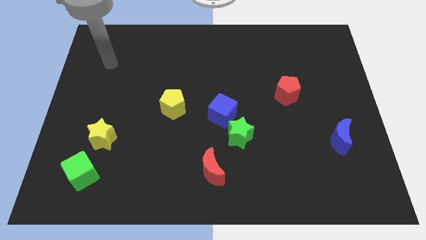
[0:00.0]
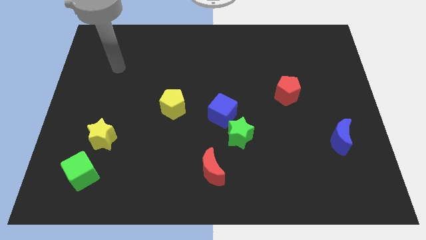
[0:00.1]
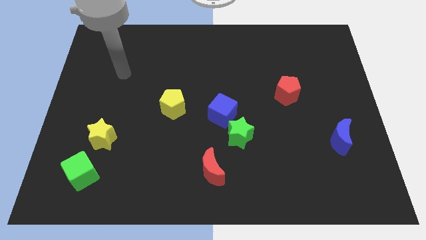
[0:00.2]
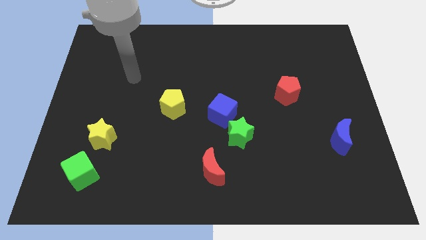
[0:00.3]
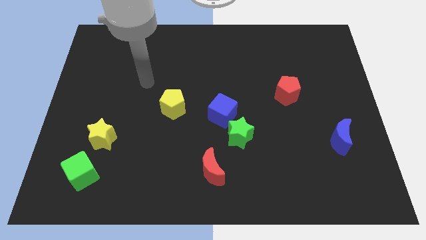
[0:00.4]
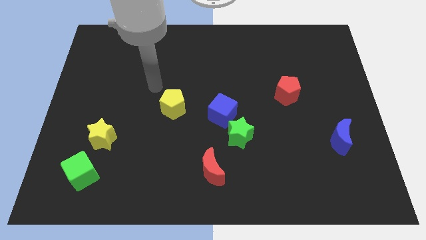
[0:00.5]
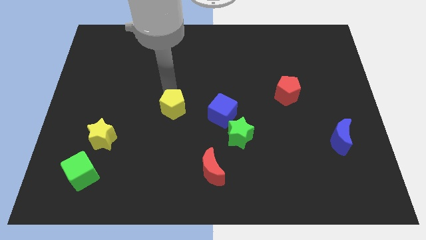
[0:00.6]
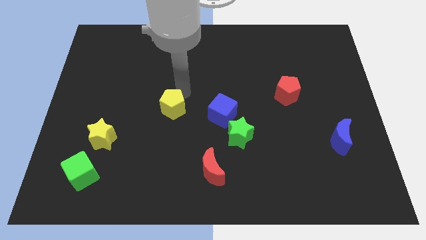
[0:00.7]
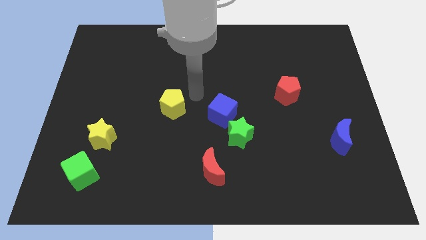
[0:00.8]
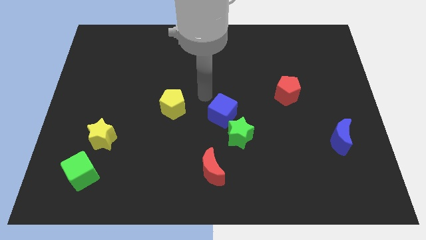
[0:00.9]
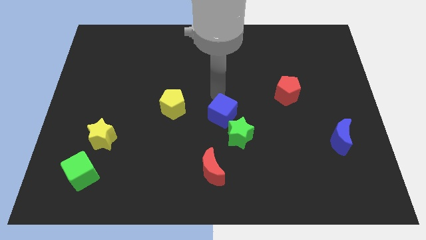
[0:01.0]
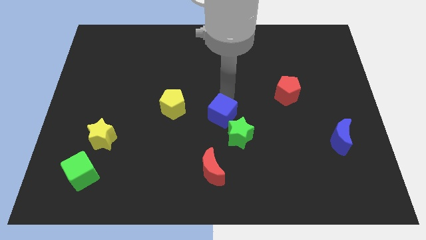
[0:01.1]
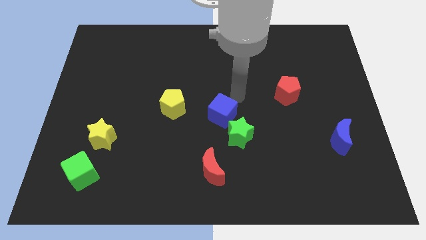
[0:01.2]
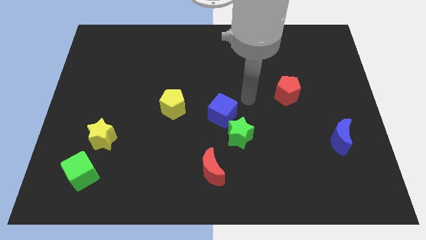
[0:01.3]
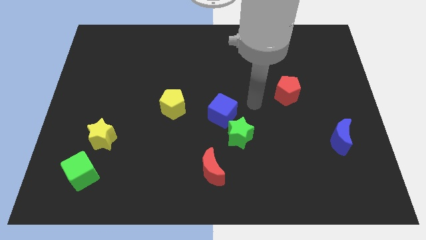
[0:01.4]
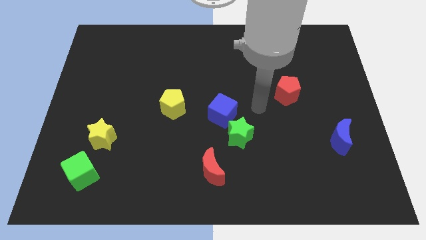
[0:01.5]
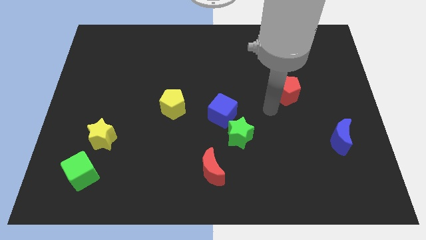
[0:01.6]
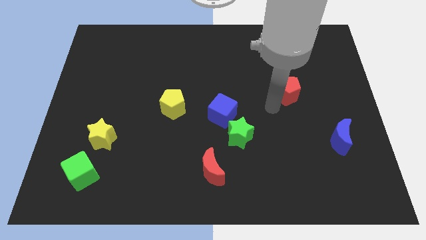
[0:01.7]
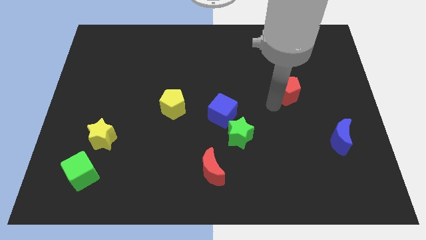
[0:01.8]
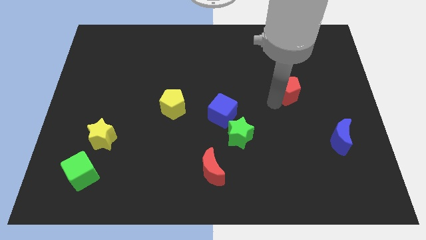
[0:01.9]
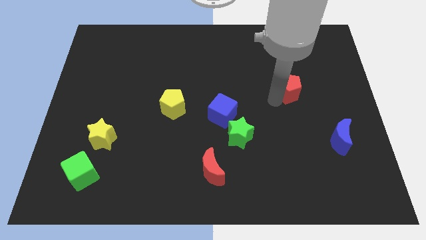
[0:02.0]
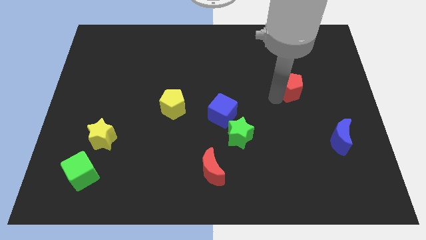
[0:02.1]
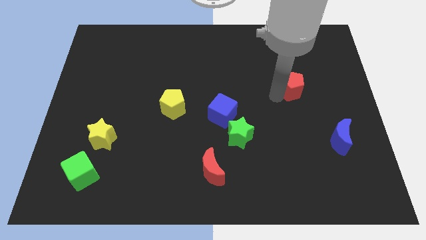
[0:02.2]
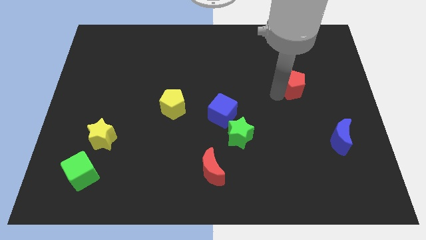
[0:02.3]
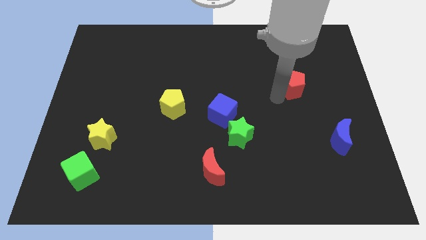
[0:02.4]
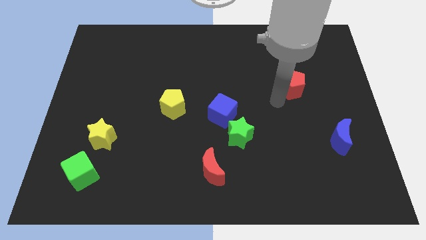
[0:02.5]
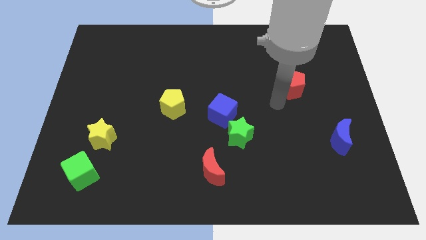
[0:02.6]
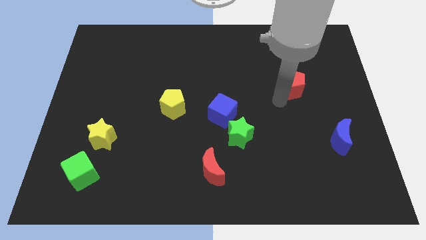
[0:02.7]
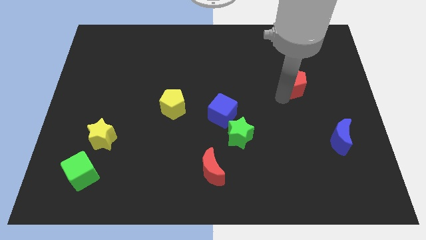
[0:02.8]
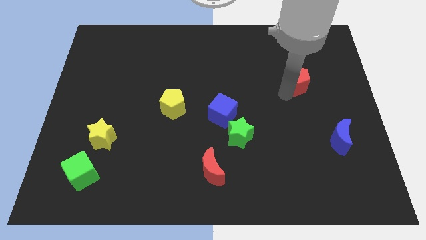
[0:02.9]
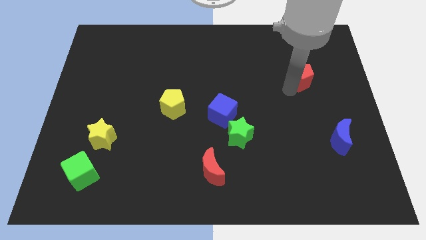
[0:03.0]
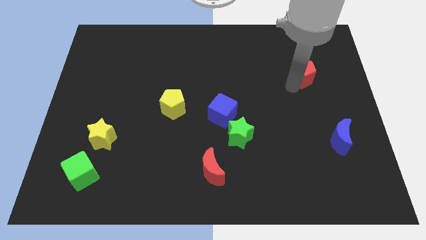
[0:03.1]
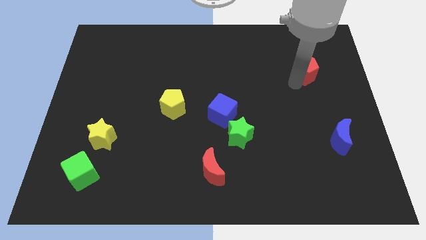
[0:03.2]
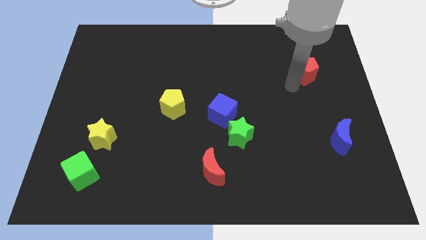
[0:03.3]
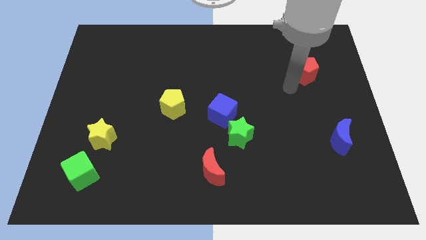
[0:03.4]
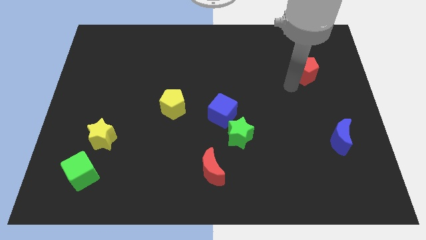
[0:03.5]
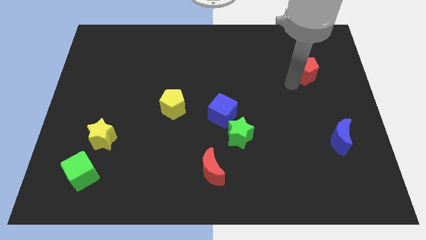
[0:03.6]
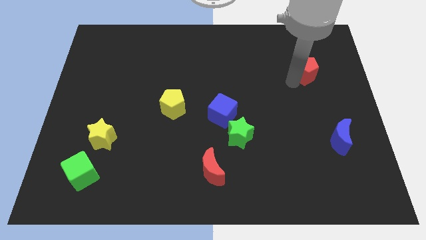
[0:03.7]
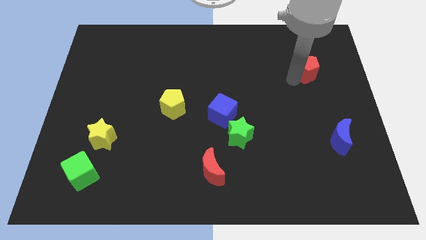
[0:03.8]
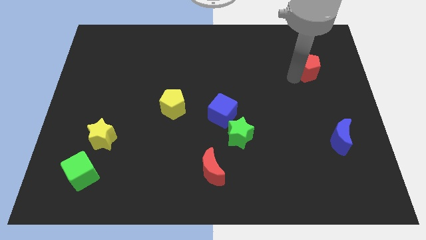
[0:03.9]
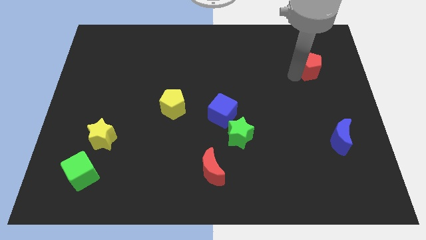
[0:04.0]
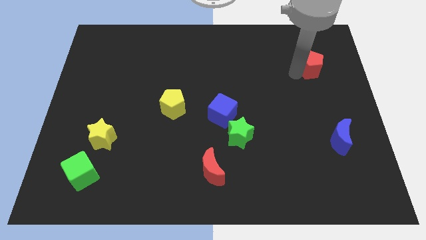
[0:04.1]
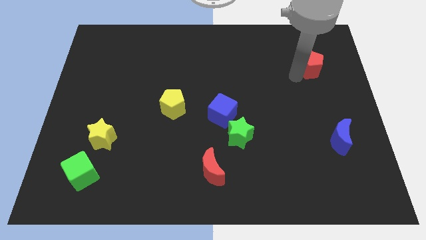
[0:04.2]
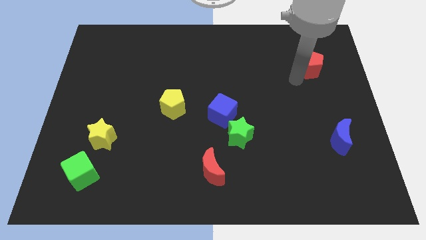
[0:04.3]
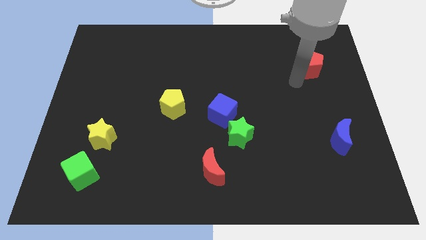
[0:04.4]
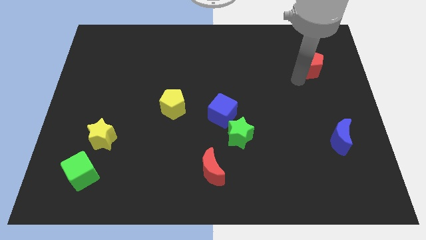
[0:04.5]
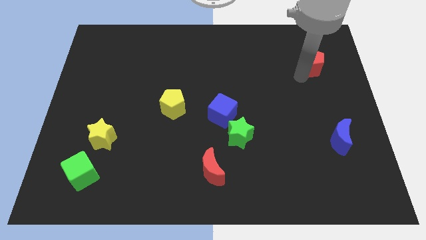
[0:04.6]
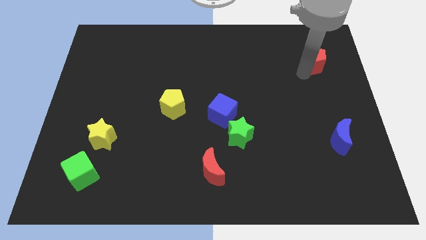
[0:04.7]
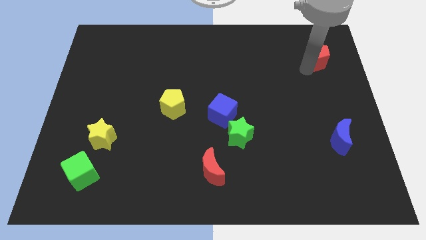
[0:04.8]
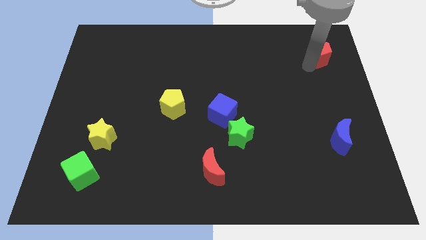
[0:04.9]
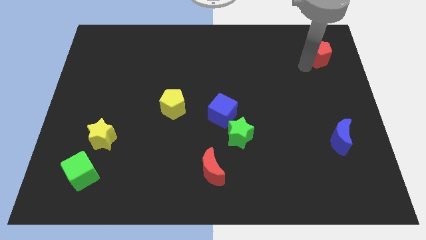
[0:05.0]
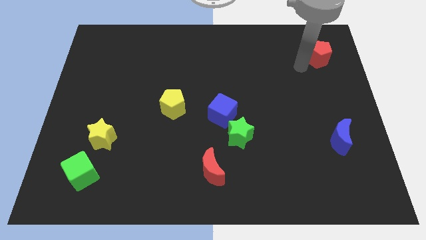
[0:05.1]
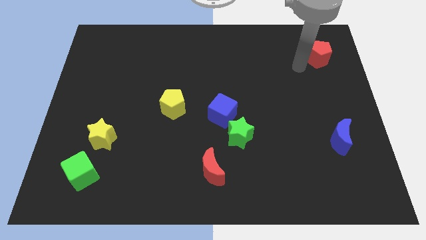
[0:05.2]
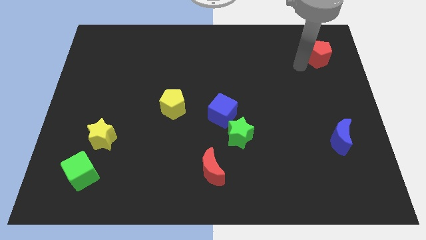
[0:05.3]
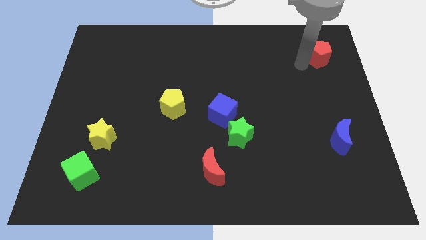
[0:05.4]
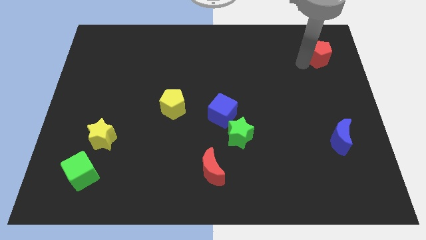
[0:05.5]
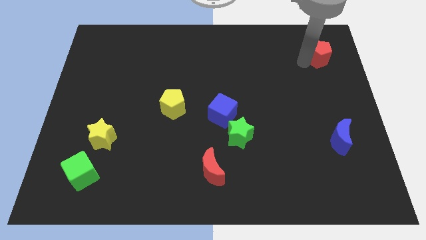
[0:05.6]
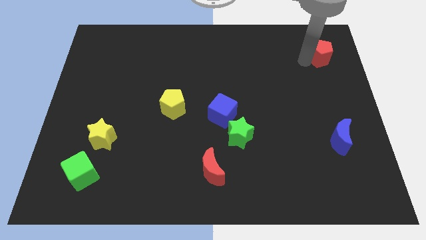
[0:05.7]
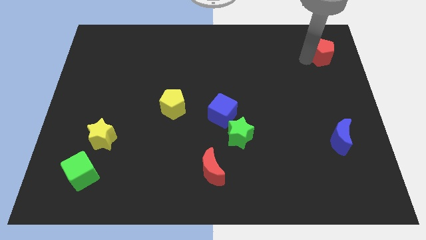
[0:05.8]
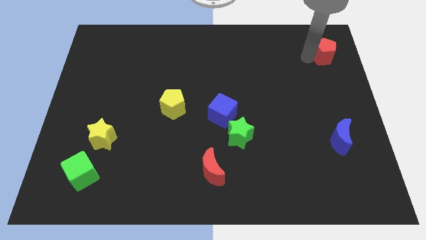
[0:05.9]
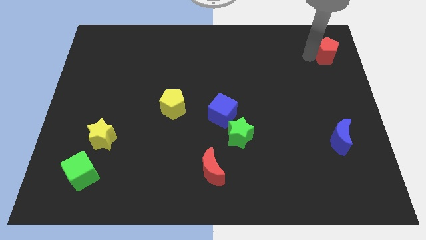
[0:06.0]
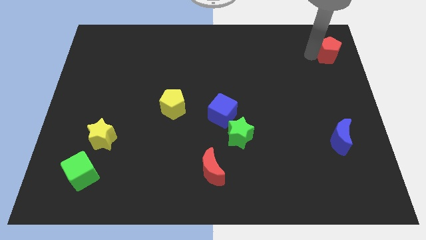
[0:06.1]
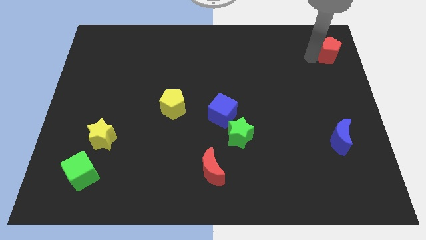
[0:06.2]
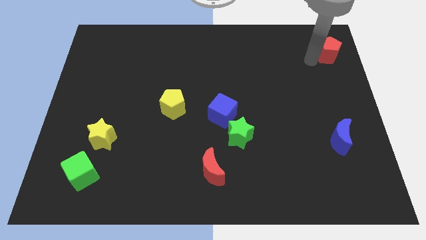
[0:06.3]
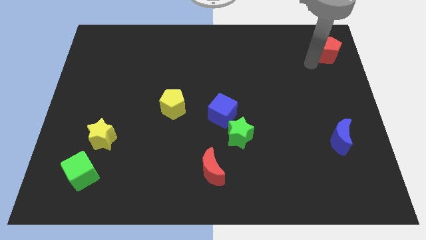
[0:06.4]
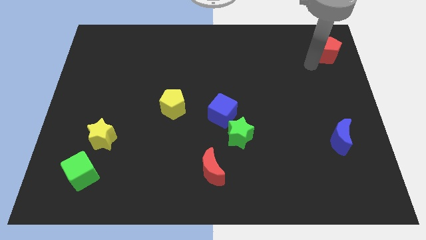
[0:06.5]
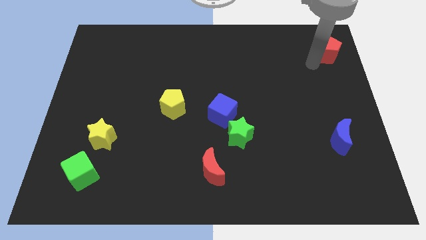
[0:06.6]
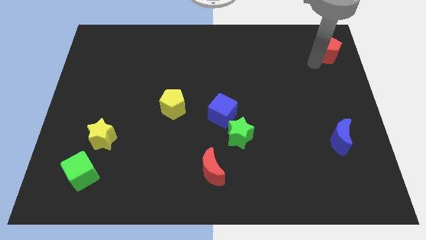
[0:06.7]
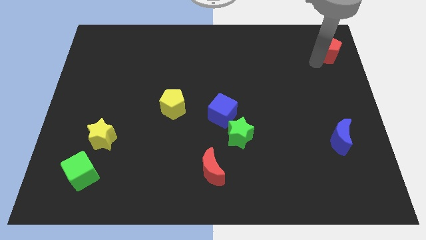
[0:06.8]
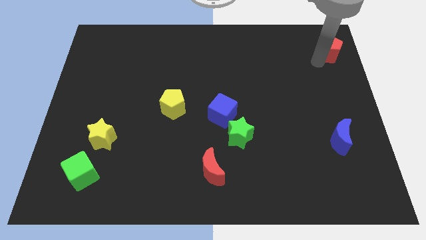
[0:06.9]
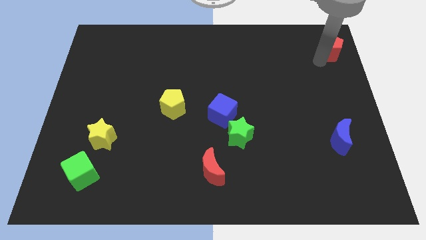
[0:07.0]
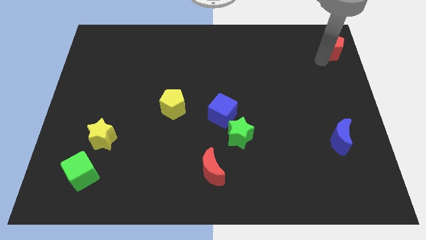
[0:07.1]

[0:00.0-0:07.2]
move the red pentagon to the upper right corner
